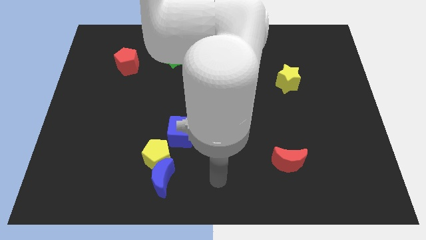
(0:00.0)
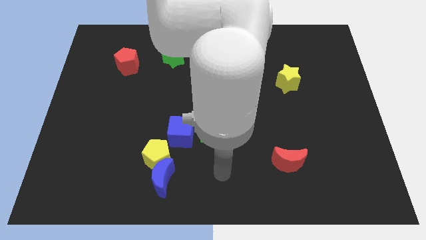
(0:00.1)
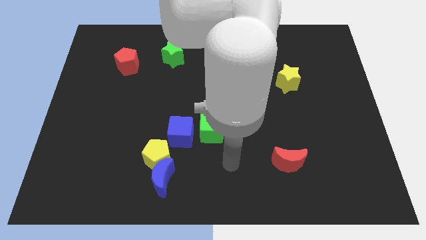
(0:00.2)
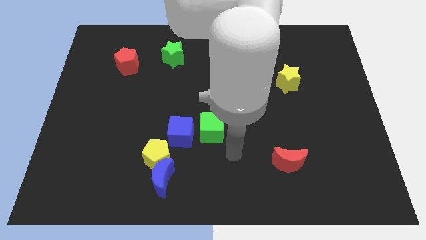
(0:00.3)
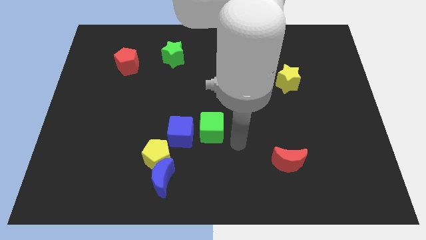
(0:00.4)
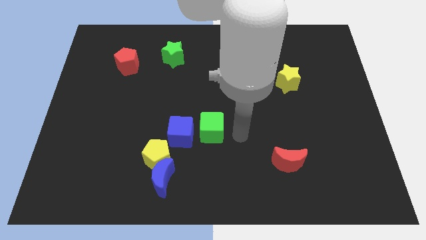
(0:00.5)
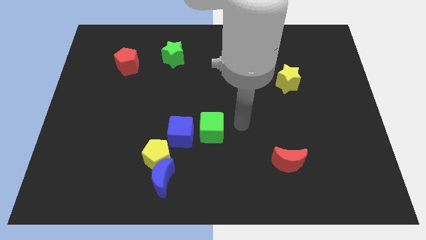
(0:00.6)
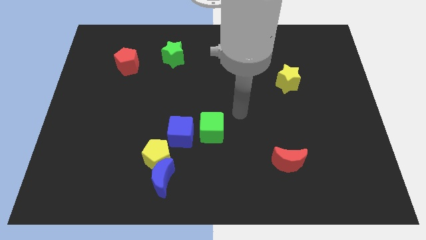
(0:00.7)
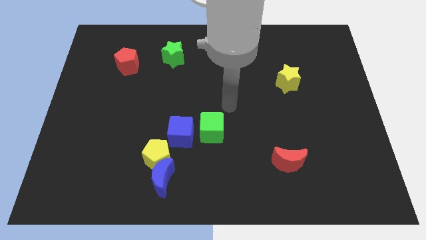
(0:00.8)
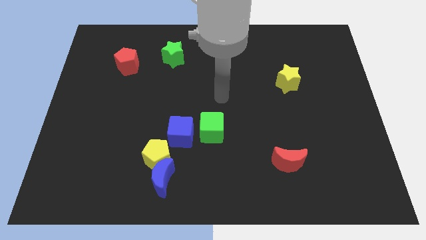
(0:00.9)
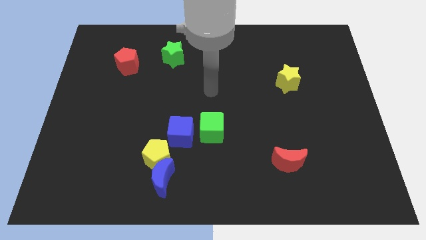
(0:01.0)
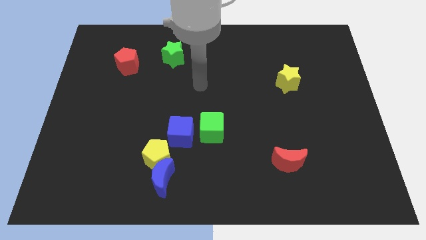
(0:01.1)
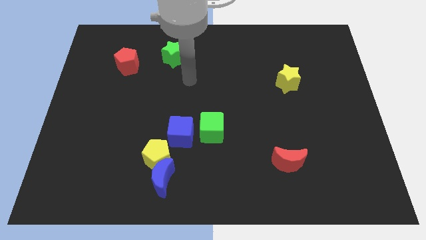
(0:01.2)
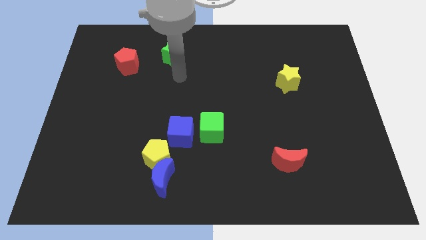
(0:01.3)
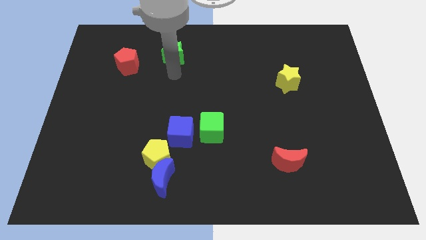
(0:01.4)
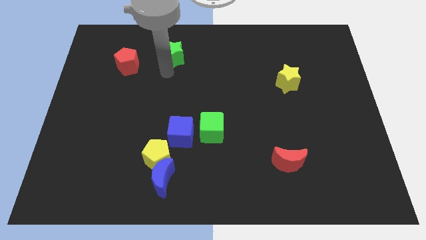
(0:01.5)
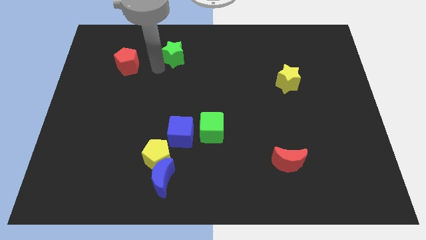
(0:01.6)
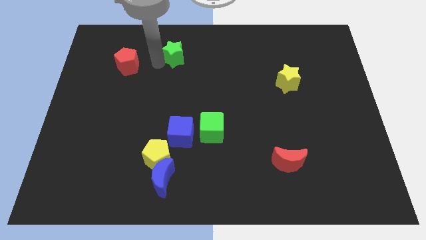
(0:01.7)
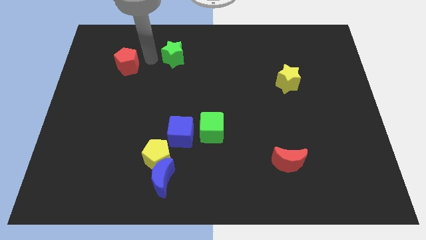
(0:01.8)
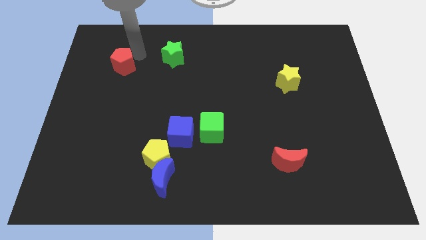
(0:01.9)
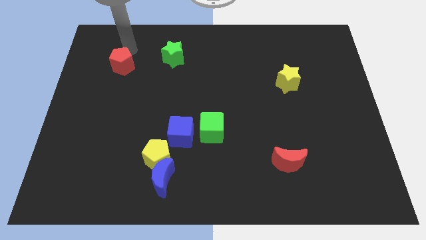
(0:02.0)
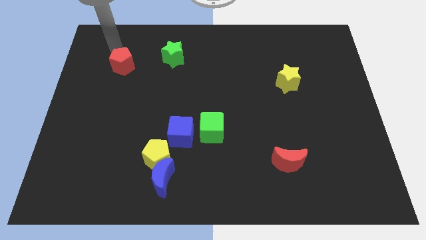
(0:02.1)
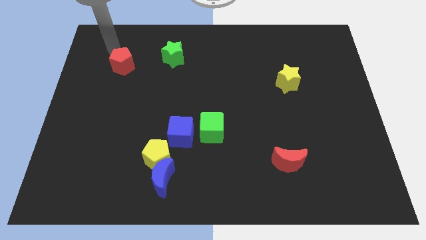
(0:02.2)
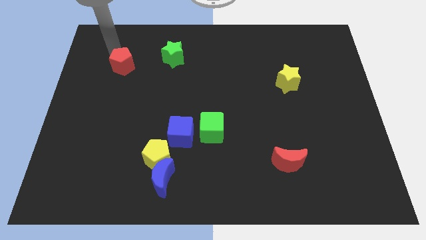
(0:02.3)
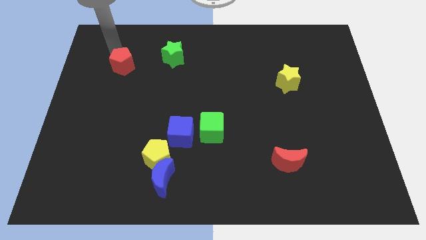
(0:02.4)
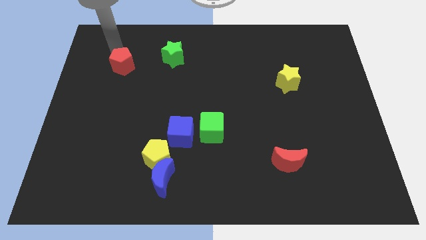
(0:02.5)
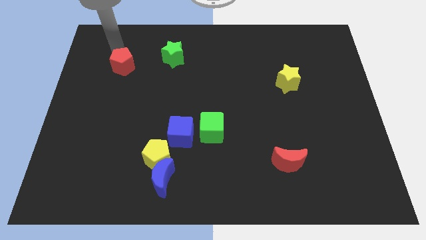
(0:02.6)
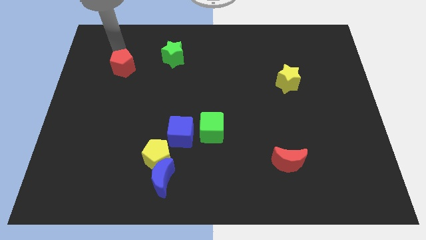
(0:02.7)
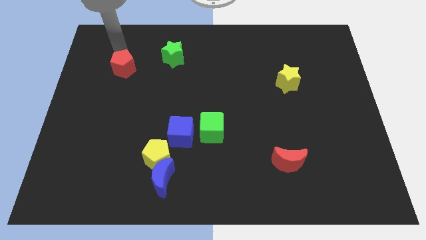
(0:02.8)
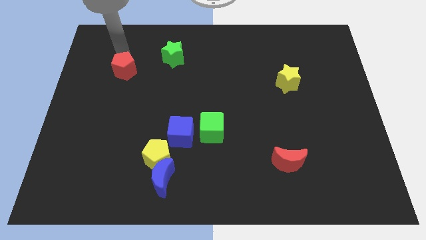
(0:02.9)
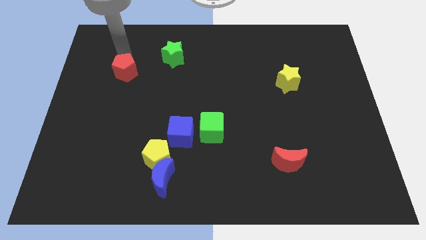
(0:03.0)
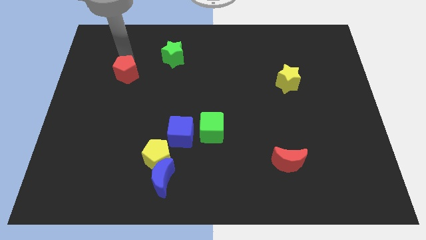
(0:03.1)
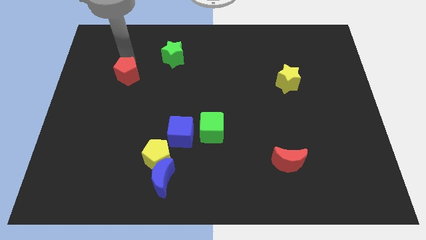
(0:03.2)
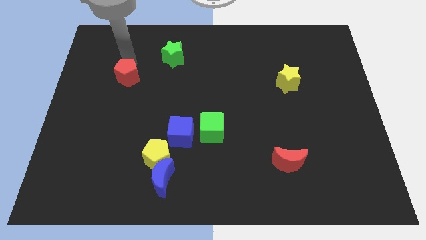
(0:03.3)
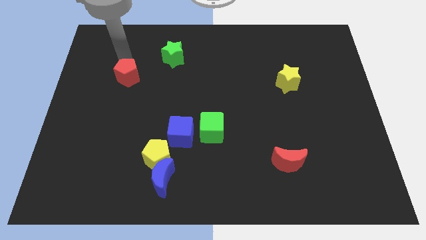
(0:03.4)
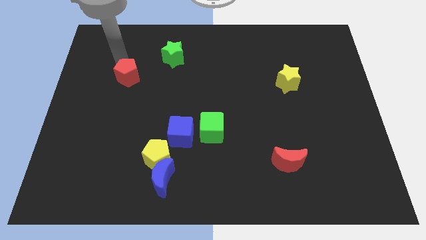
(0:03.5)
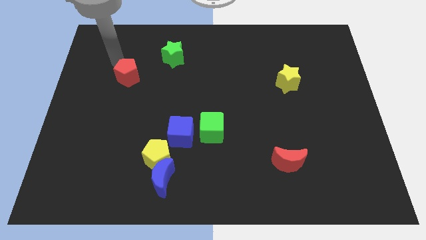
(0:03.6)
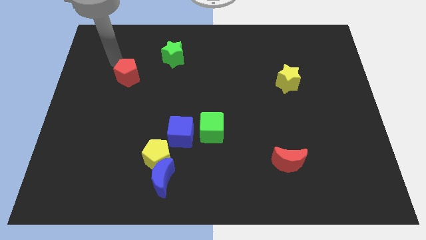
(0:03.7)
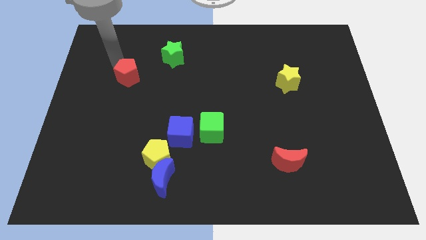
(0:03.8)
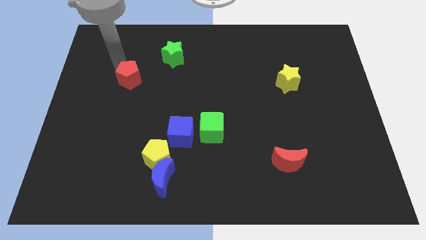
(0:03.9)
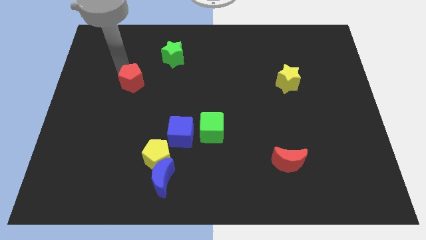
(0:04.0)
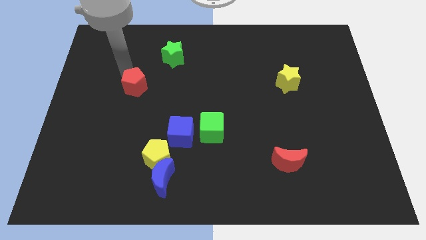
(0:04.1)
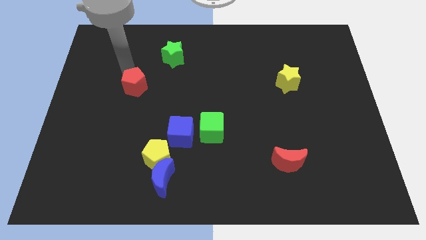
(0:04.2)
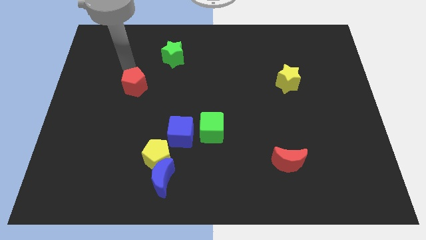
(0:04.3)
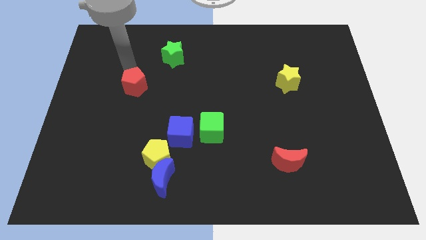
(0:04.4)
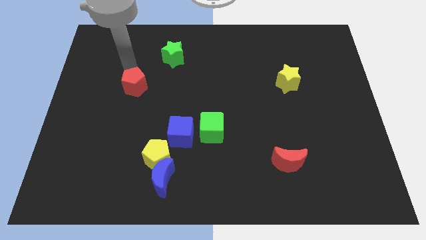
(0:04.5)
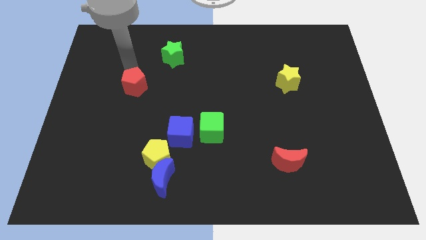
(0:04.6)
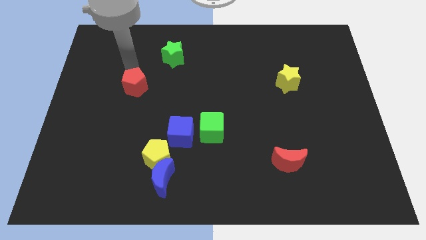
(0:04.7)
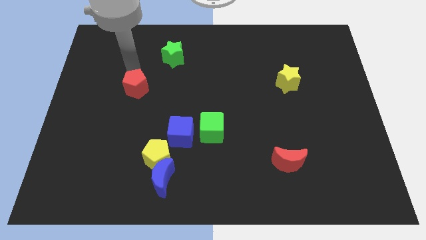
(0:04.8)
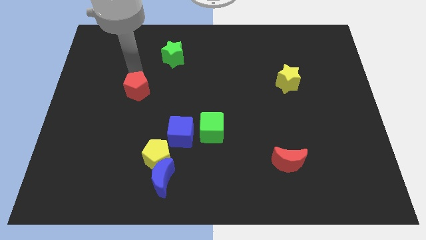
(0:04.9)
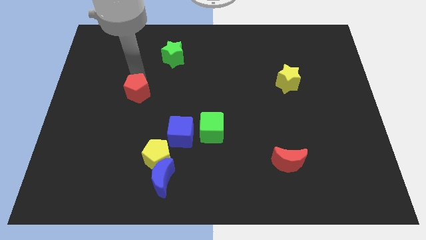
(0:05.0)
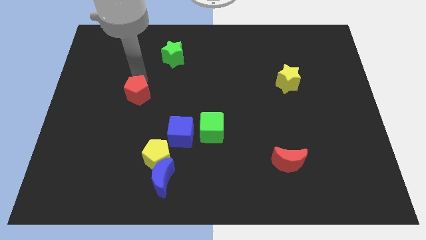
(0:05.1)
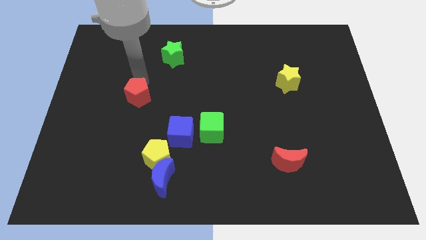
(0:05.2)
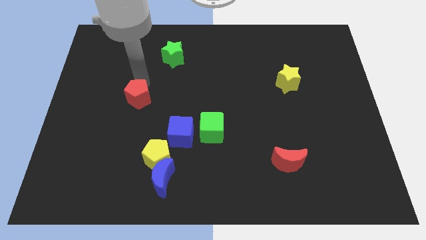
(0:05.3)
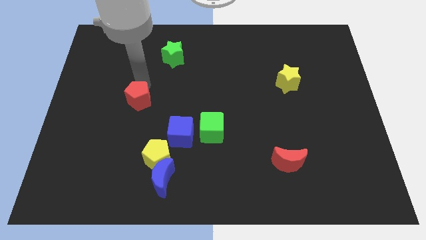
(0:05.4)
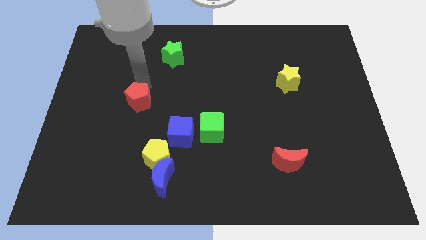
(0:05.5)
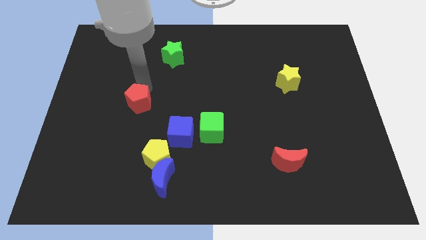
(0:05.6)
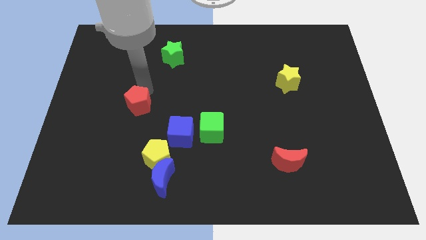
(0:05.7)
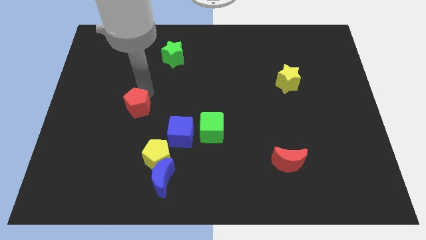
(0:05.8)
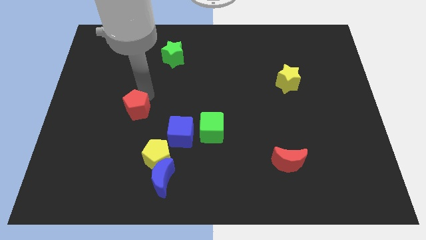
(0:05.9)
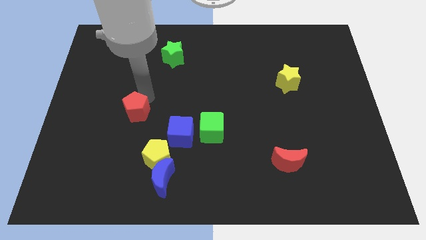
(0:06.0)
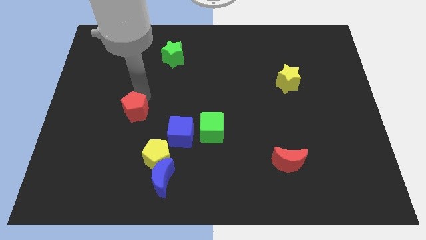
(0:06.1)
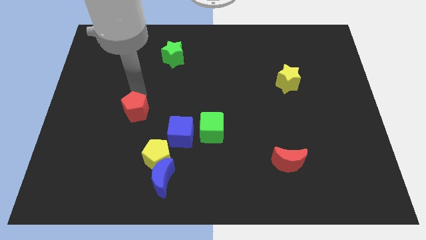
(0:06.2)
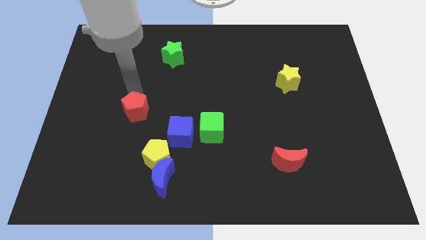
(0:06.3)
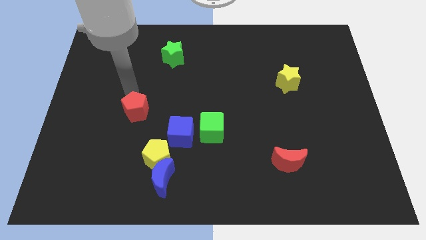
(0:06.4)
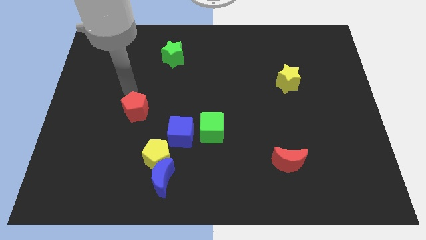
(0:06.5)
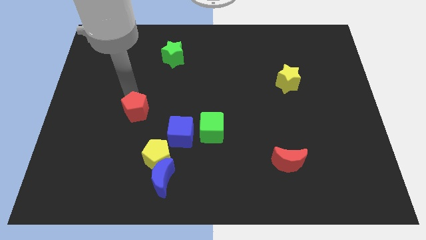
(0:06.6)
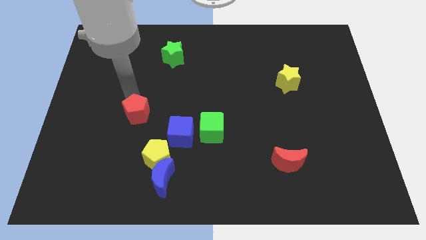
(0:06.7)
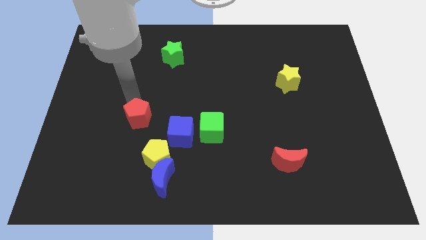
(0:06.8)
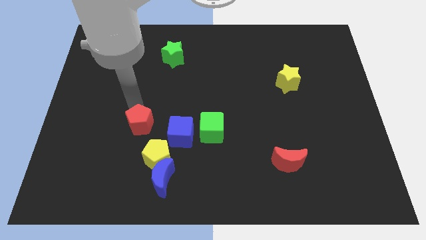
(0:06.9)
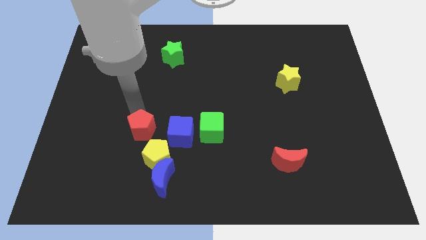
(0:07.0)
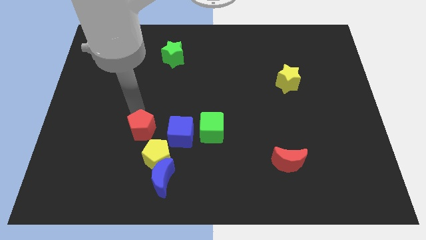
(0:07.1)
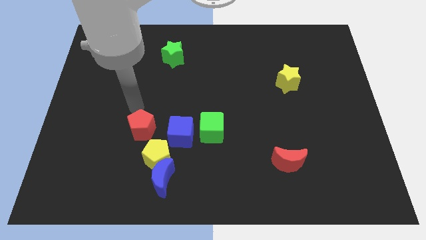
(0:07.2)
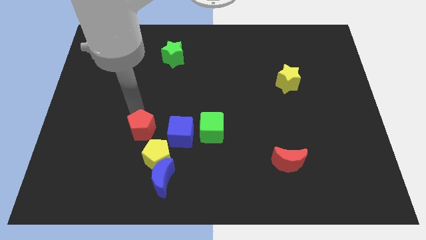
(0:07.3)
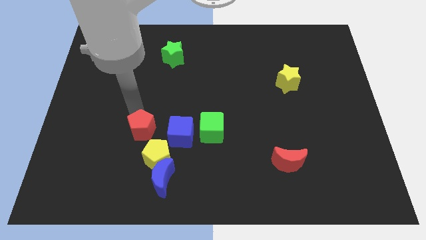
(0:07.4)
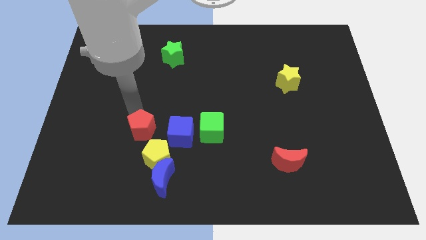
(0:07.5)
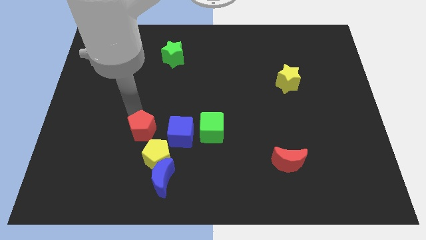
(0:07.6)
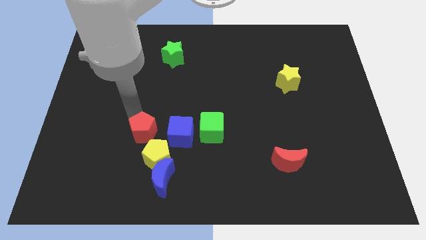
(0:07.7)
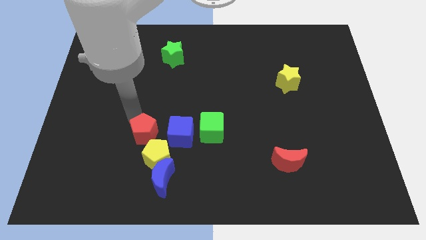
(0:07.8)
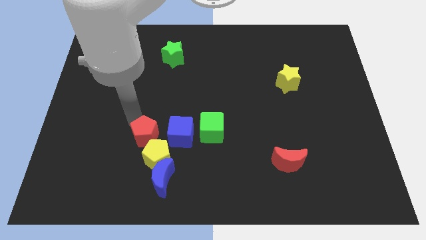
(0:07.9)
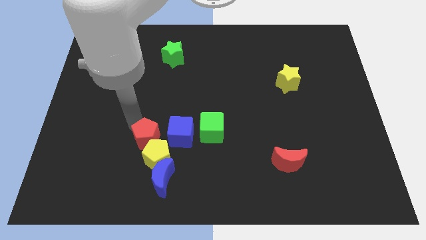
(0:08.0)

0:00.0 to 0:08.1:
push the red pentagon to the yellow pentagon
